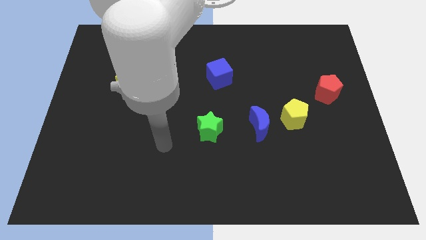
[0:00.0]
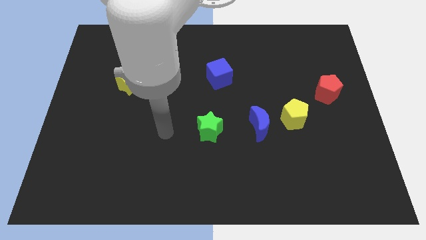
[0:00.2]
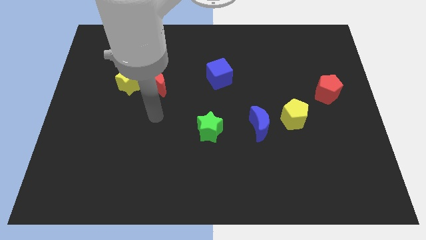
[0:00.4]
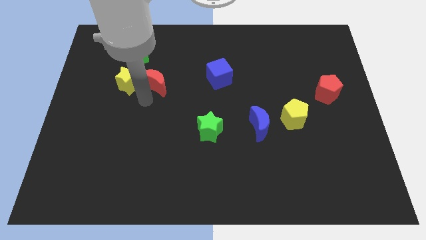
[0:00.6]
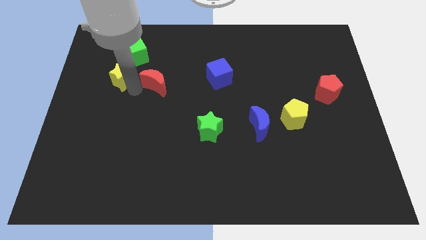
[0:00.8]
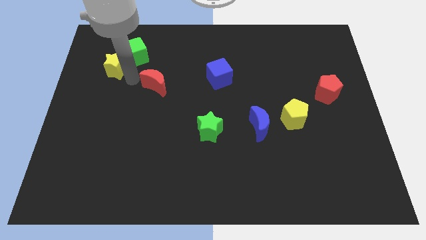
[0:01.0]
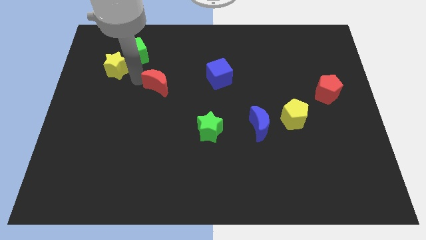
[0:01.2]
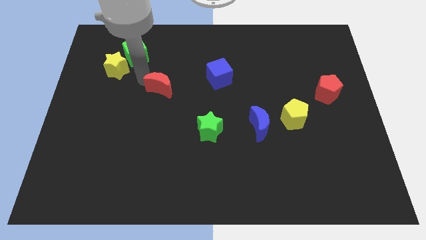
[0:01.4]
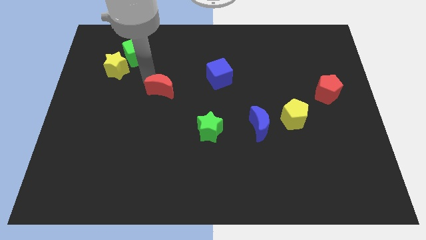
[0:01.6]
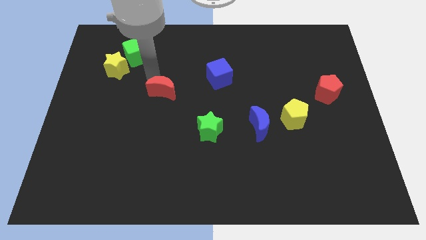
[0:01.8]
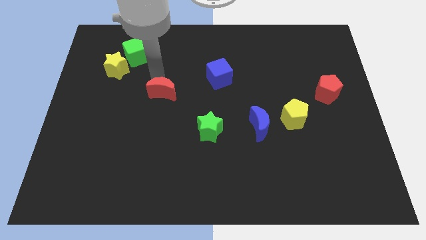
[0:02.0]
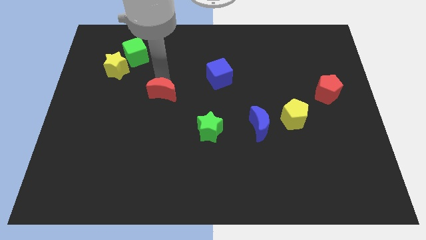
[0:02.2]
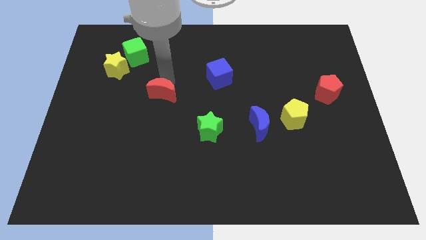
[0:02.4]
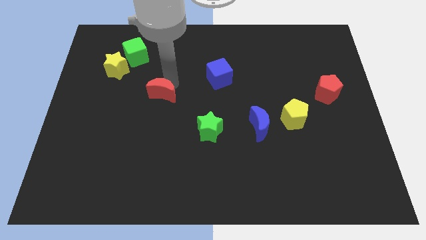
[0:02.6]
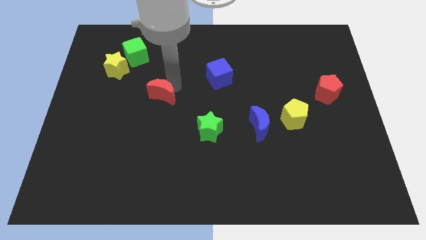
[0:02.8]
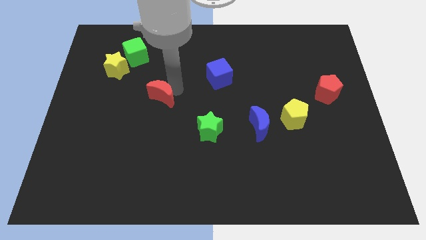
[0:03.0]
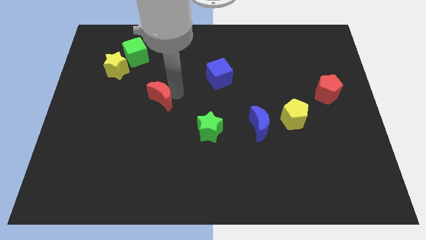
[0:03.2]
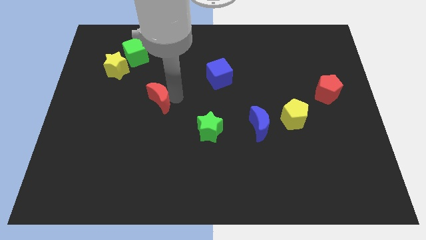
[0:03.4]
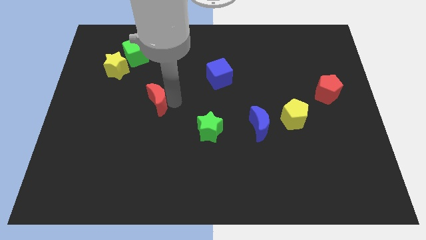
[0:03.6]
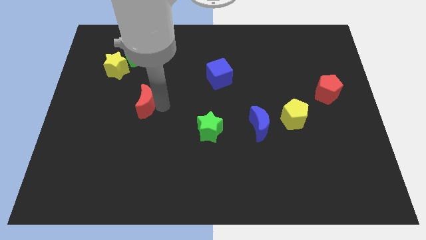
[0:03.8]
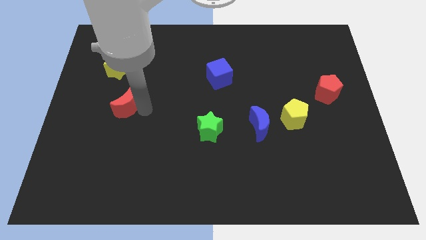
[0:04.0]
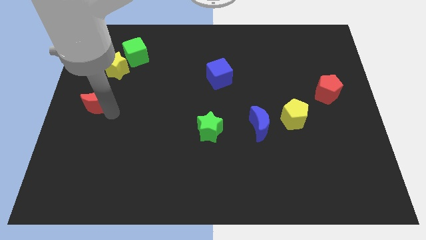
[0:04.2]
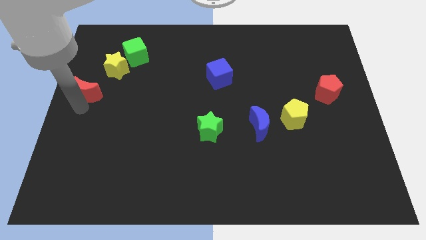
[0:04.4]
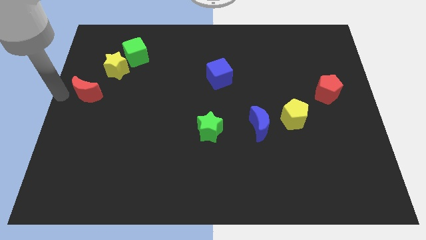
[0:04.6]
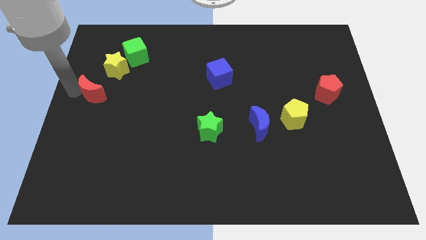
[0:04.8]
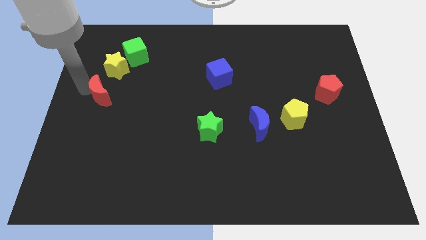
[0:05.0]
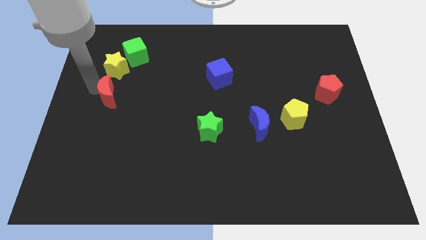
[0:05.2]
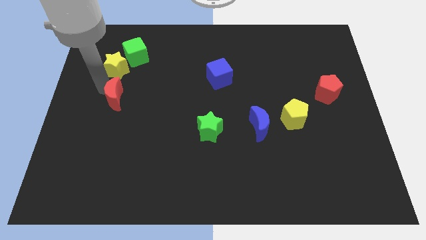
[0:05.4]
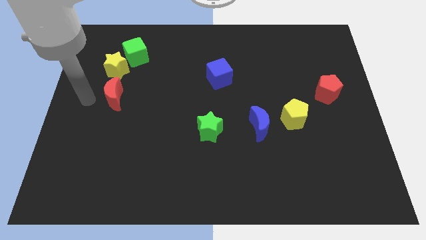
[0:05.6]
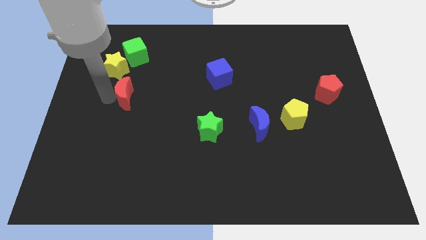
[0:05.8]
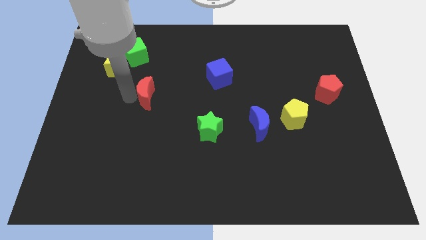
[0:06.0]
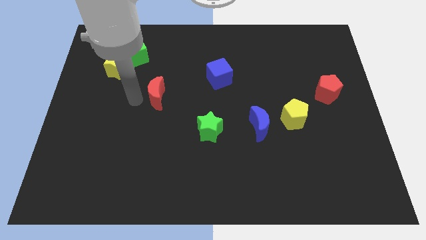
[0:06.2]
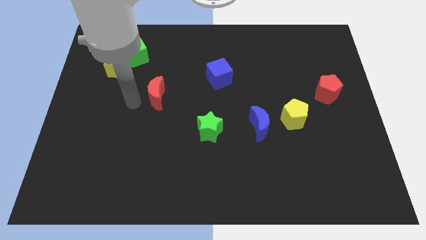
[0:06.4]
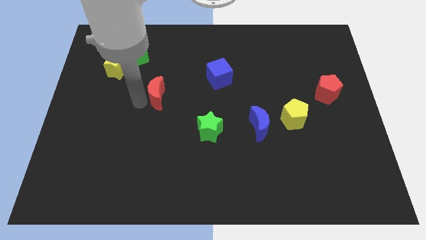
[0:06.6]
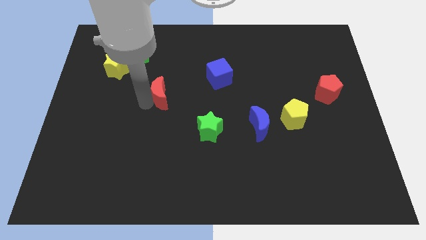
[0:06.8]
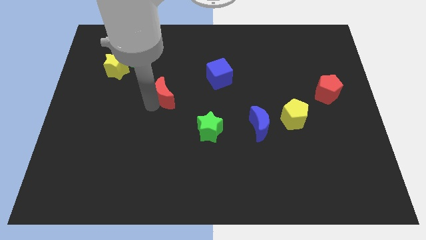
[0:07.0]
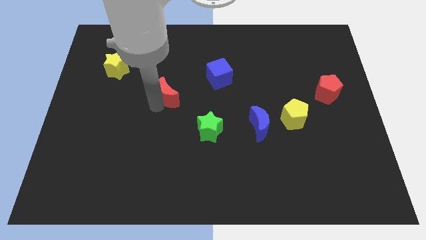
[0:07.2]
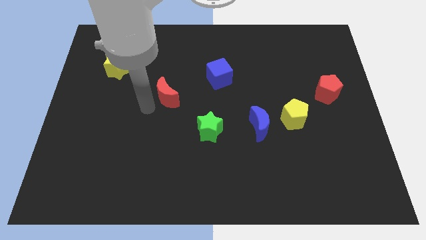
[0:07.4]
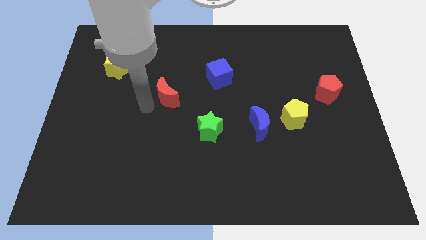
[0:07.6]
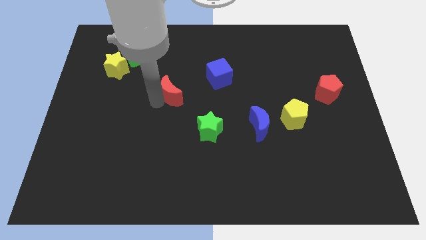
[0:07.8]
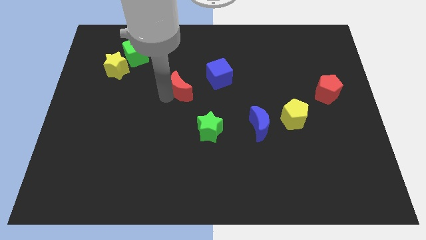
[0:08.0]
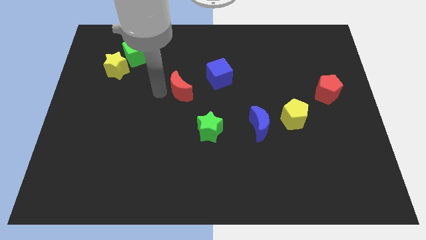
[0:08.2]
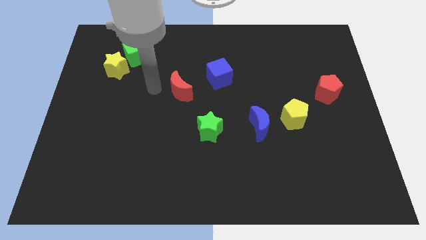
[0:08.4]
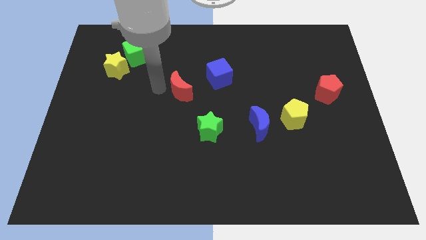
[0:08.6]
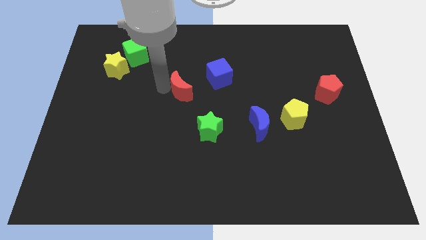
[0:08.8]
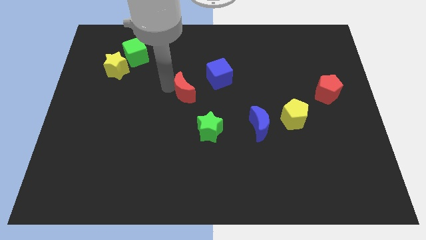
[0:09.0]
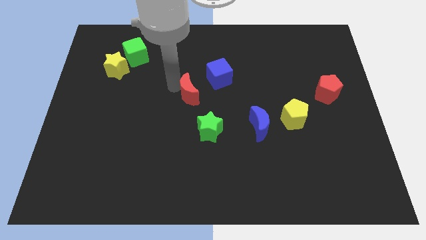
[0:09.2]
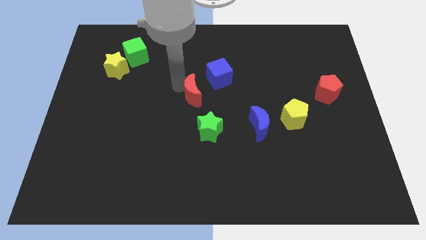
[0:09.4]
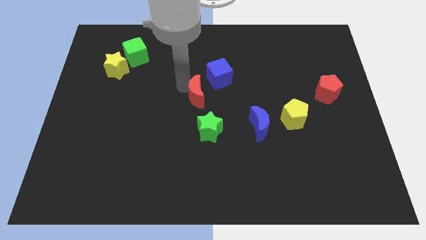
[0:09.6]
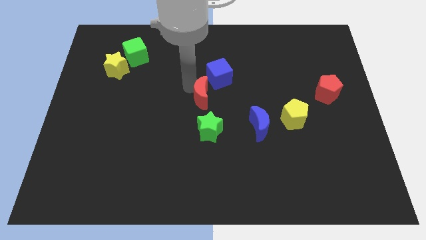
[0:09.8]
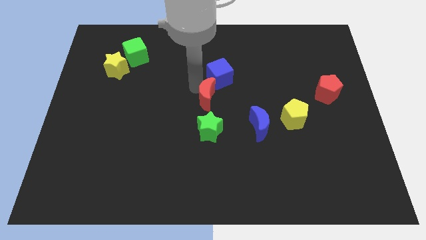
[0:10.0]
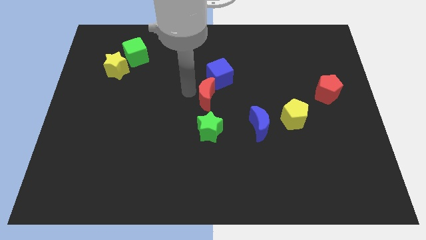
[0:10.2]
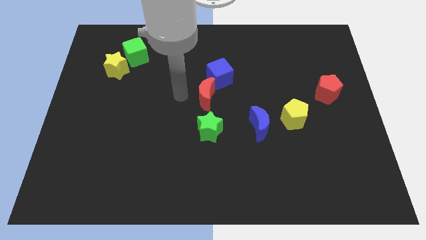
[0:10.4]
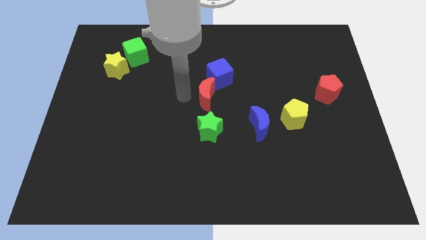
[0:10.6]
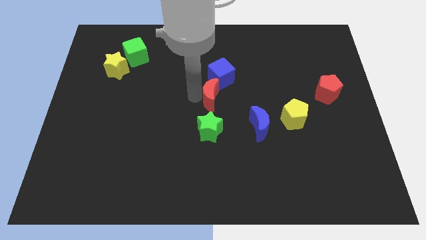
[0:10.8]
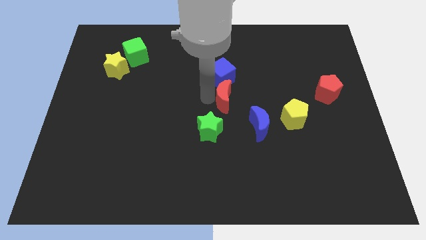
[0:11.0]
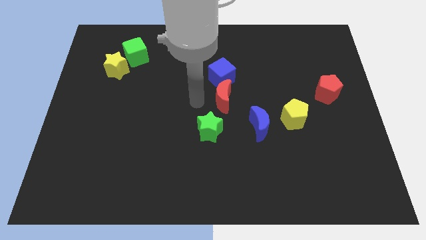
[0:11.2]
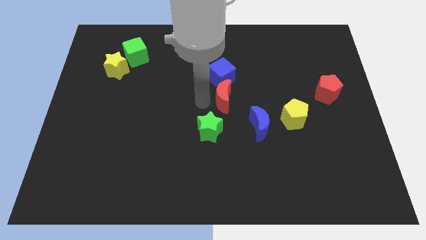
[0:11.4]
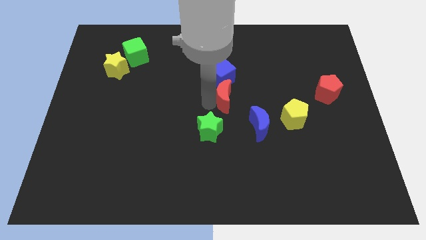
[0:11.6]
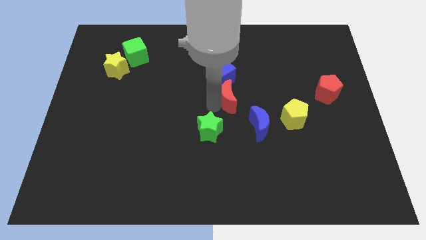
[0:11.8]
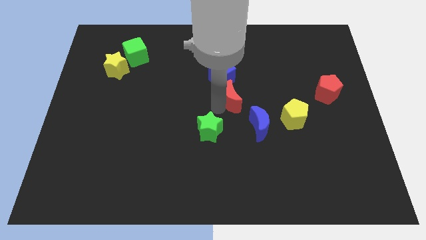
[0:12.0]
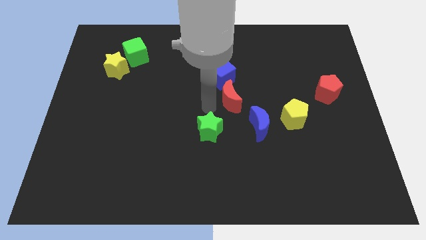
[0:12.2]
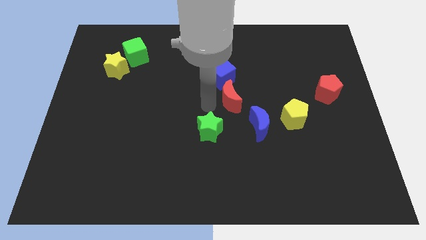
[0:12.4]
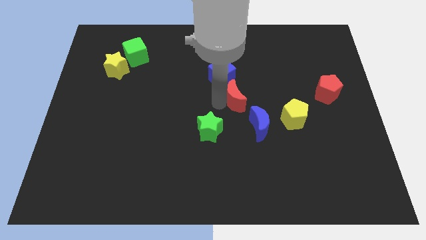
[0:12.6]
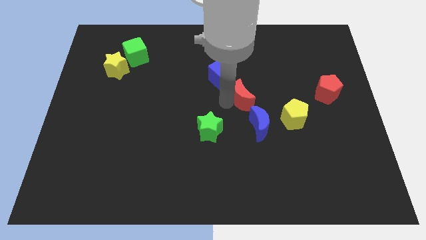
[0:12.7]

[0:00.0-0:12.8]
move the red moon to the right

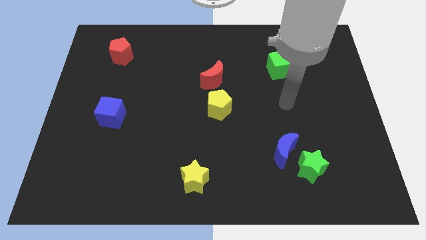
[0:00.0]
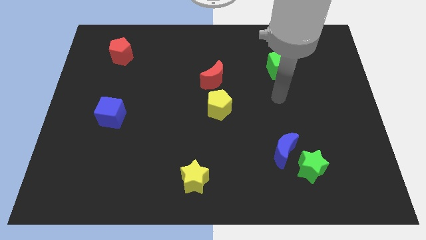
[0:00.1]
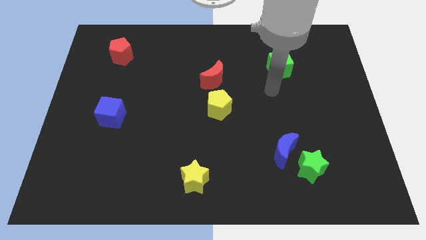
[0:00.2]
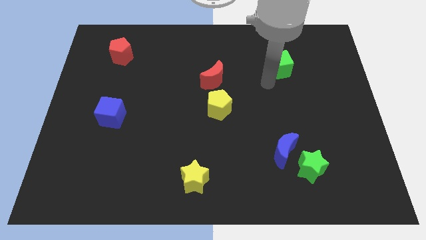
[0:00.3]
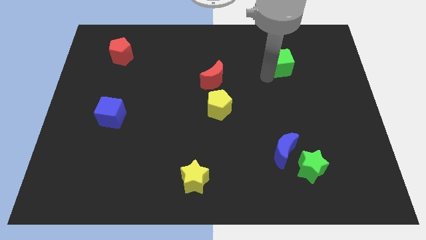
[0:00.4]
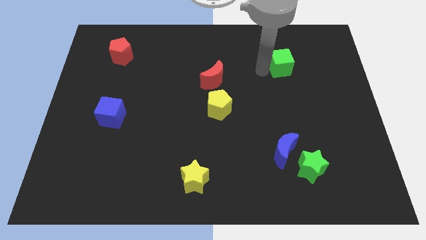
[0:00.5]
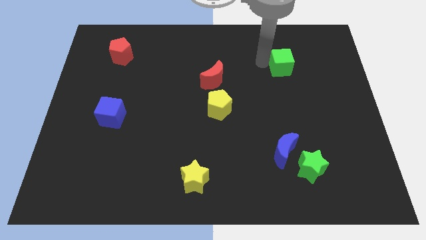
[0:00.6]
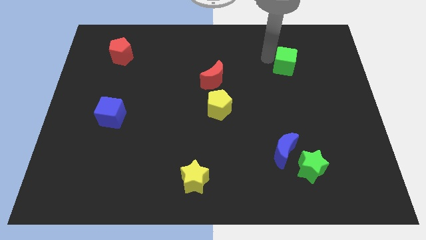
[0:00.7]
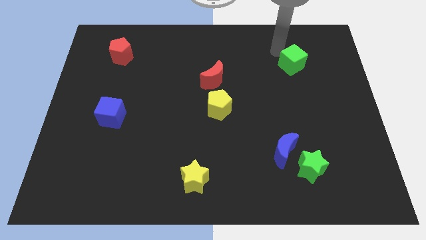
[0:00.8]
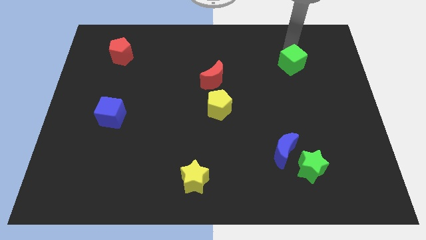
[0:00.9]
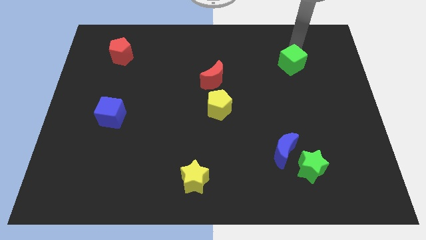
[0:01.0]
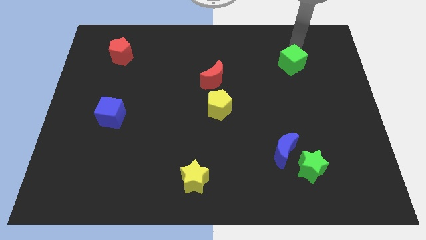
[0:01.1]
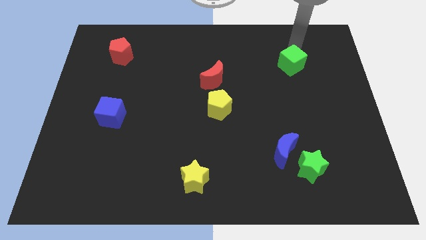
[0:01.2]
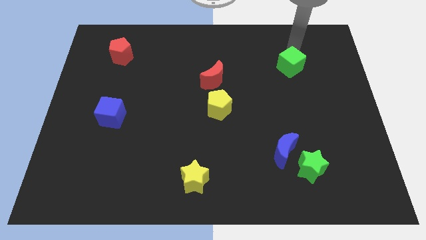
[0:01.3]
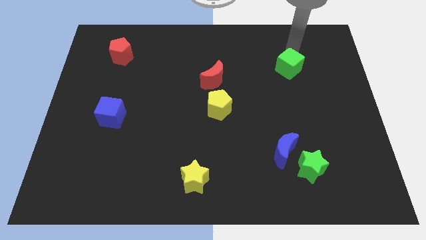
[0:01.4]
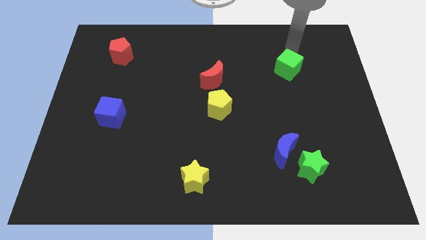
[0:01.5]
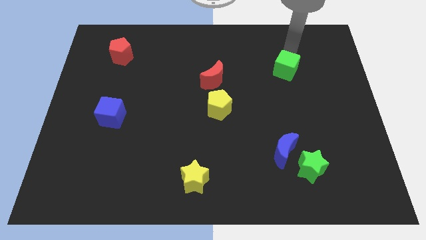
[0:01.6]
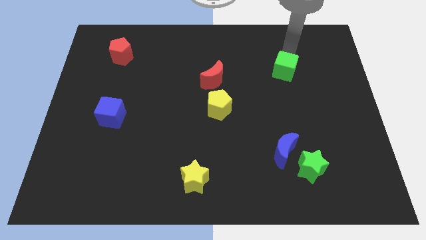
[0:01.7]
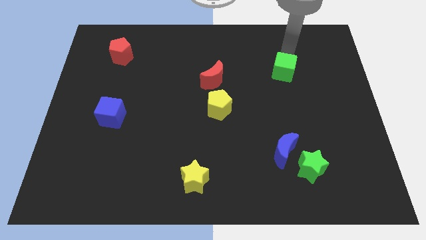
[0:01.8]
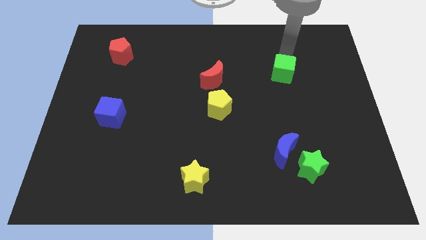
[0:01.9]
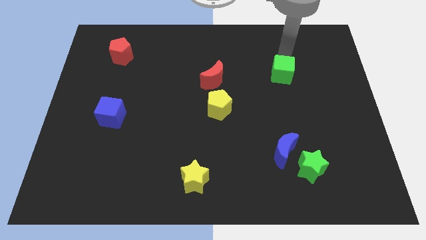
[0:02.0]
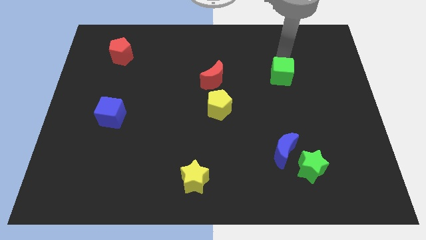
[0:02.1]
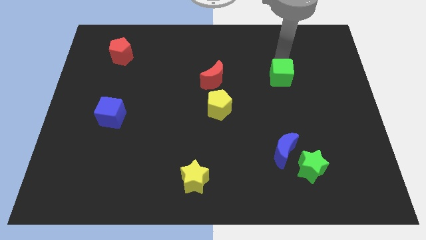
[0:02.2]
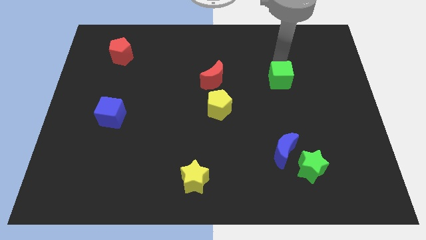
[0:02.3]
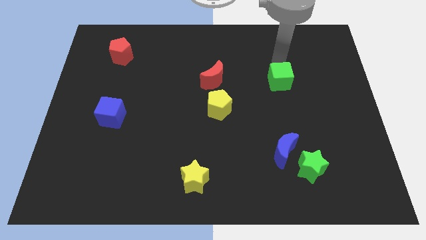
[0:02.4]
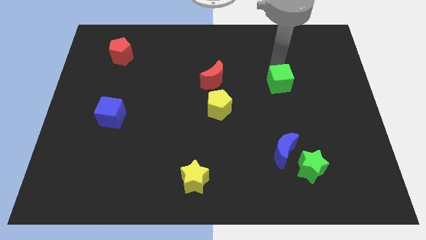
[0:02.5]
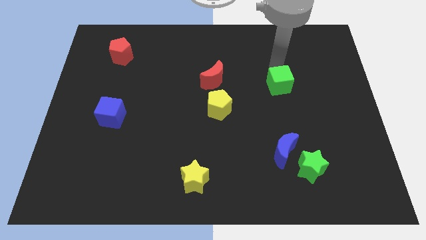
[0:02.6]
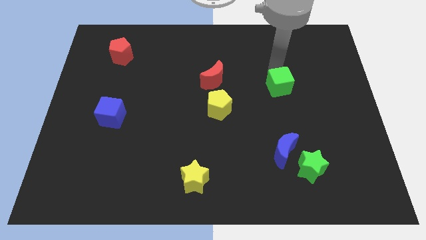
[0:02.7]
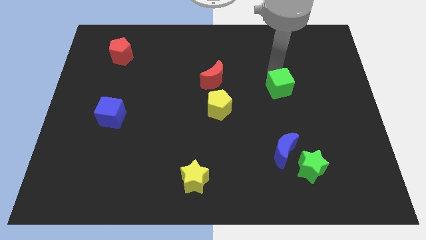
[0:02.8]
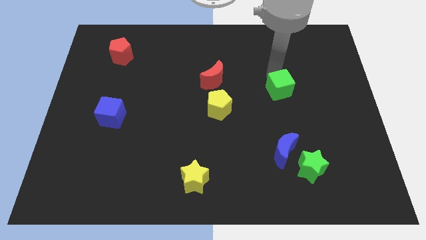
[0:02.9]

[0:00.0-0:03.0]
push the green cube a bit down
